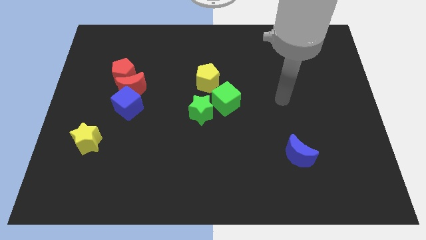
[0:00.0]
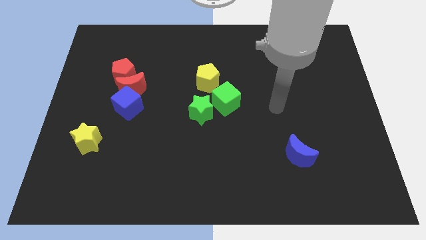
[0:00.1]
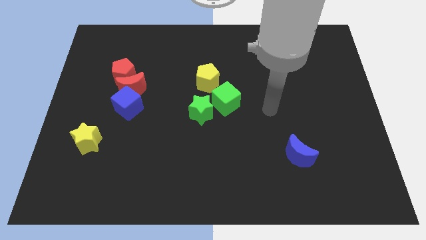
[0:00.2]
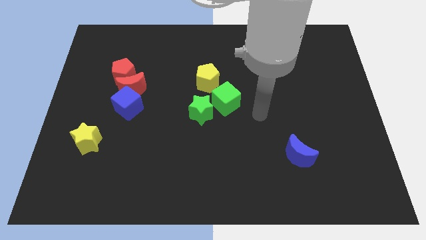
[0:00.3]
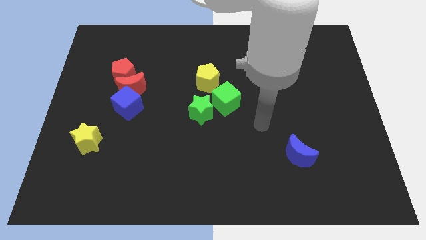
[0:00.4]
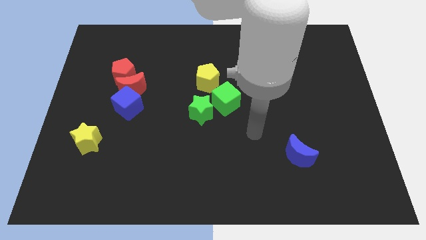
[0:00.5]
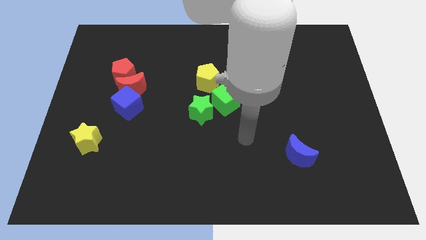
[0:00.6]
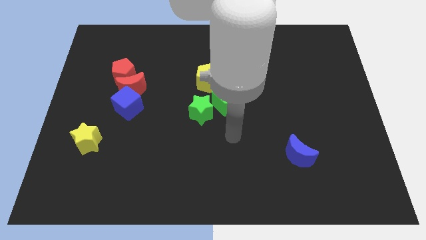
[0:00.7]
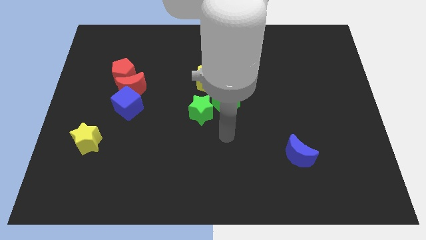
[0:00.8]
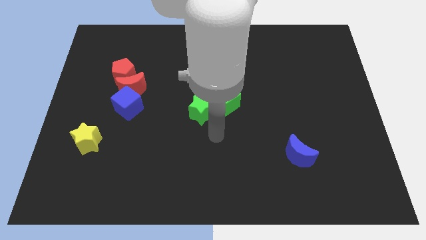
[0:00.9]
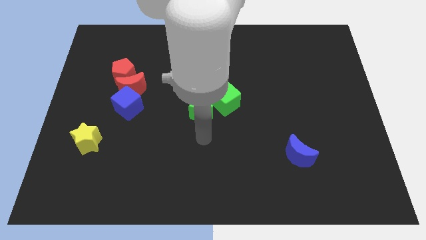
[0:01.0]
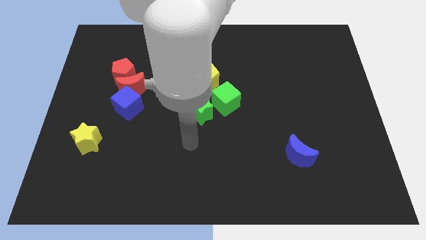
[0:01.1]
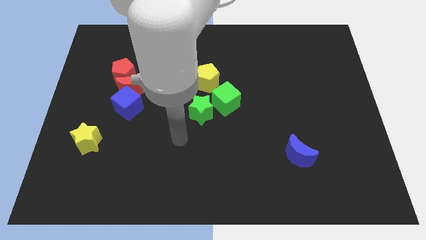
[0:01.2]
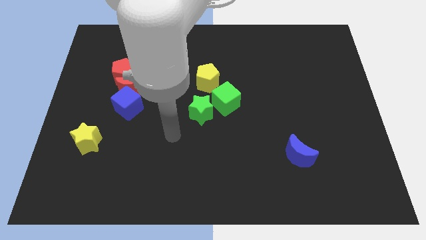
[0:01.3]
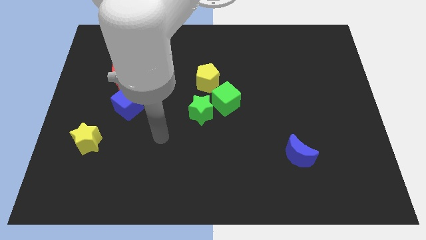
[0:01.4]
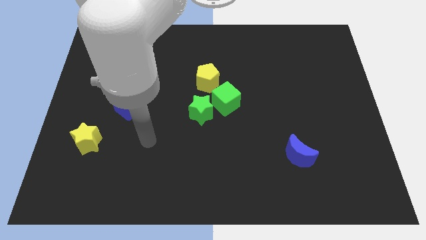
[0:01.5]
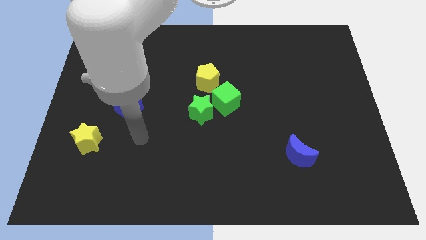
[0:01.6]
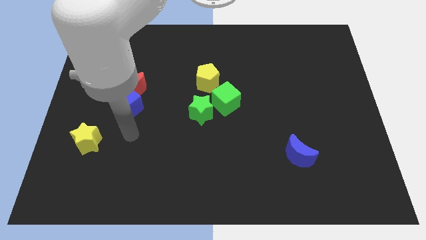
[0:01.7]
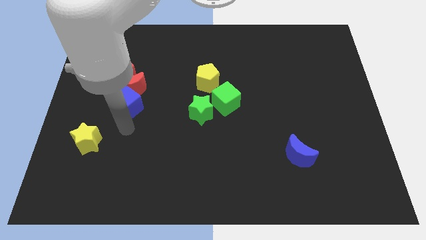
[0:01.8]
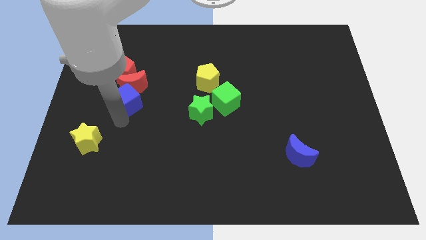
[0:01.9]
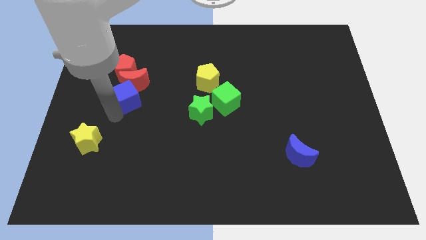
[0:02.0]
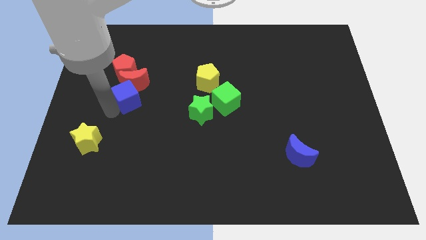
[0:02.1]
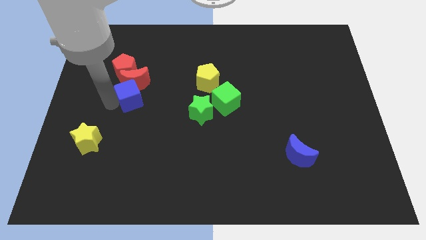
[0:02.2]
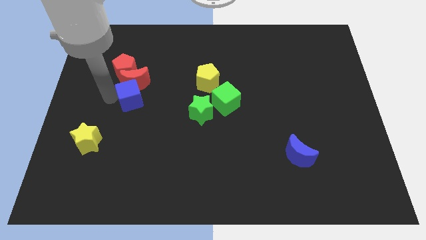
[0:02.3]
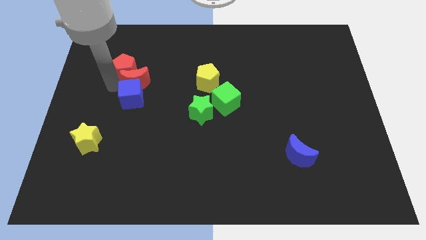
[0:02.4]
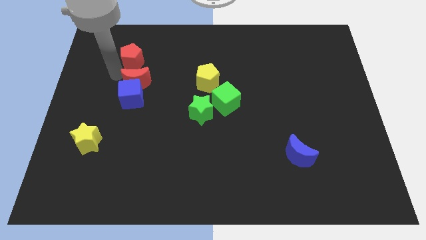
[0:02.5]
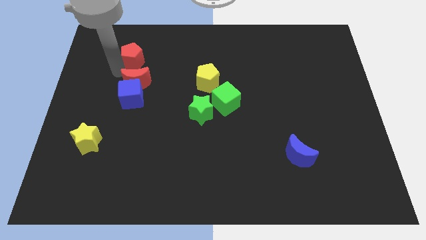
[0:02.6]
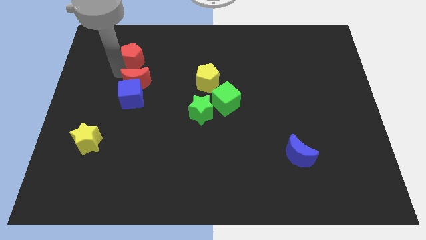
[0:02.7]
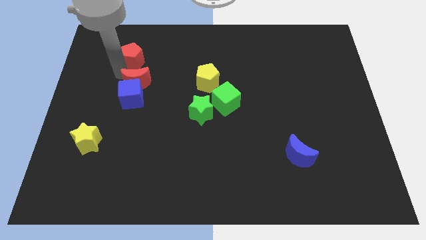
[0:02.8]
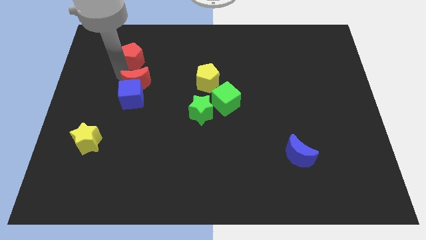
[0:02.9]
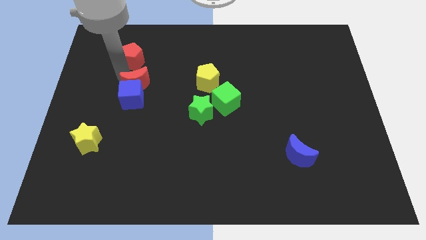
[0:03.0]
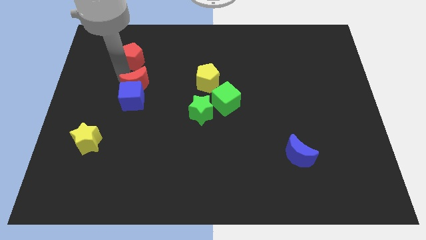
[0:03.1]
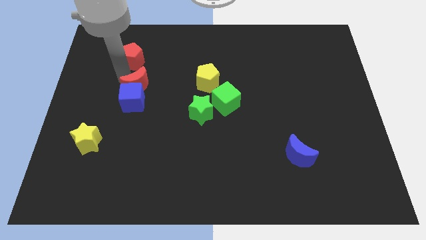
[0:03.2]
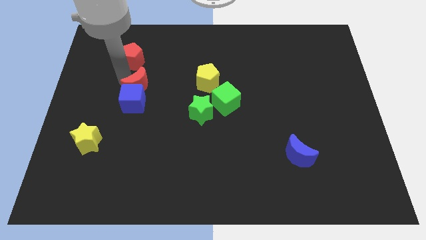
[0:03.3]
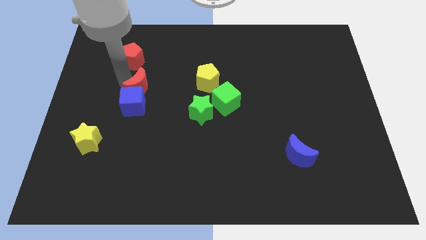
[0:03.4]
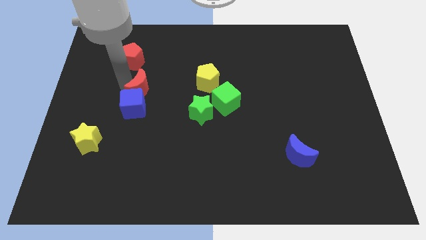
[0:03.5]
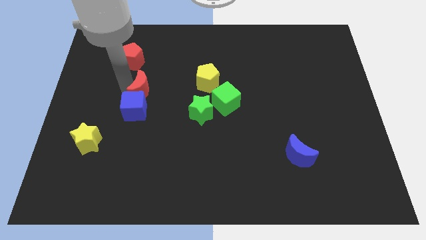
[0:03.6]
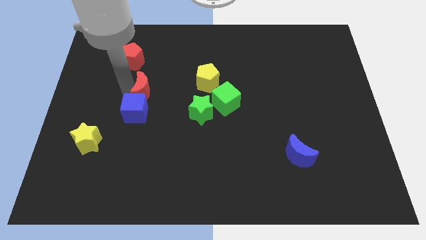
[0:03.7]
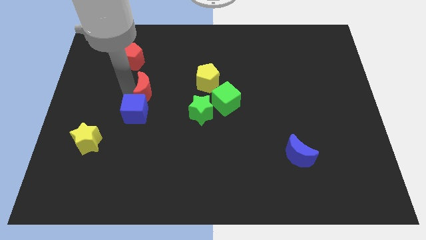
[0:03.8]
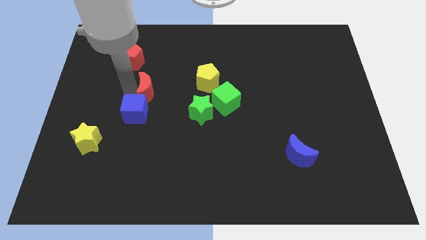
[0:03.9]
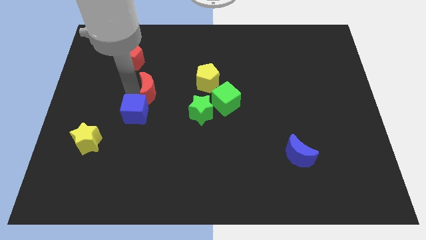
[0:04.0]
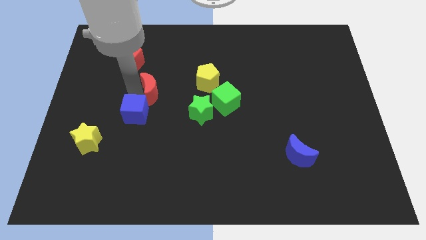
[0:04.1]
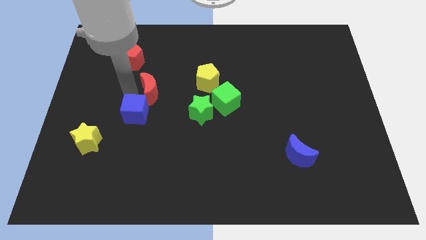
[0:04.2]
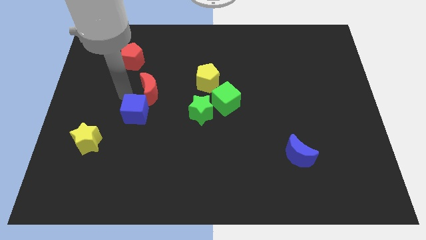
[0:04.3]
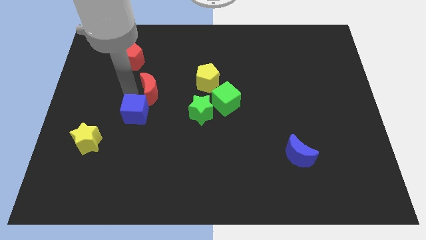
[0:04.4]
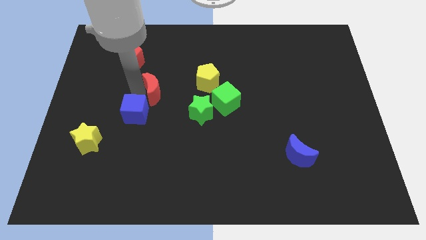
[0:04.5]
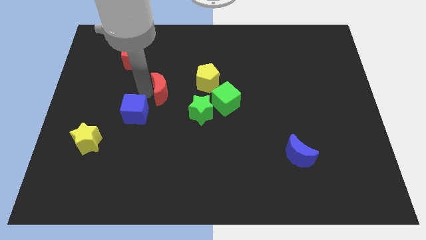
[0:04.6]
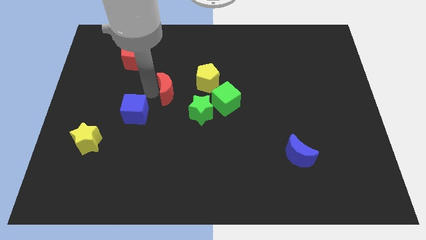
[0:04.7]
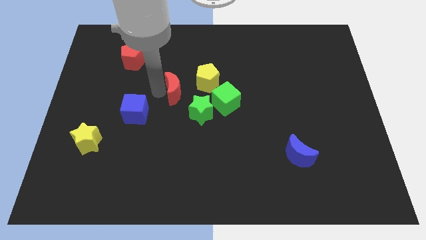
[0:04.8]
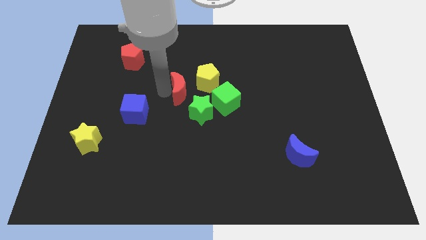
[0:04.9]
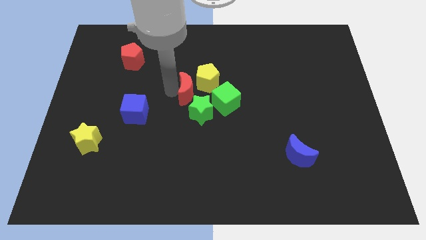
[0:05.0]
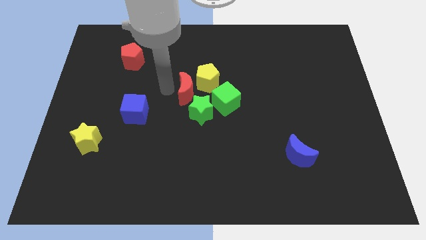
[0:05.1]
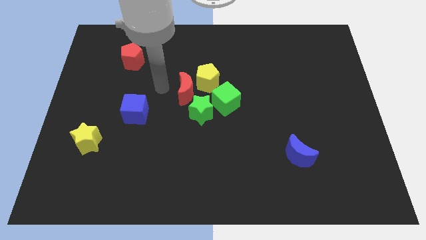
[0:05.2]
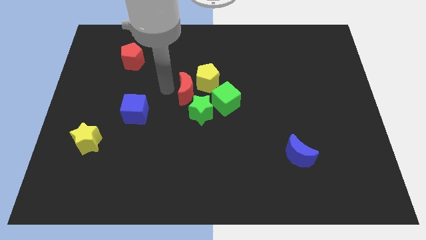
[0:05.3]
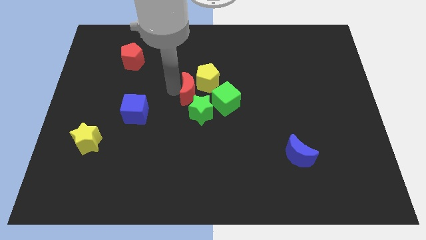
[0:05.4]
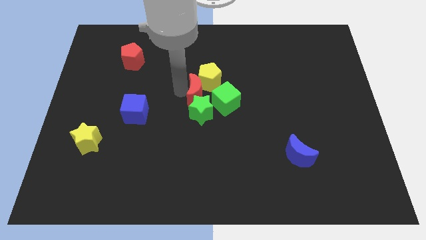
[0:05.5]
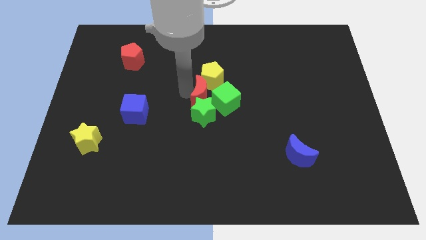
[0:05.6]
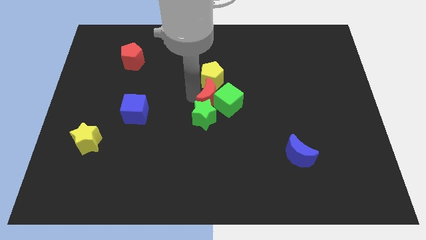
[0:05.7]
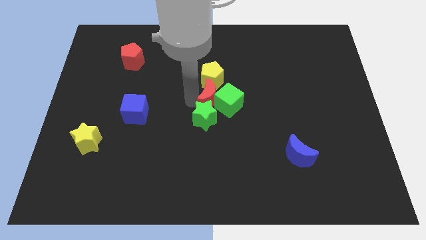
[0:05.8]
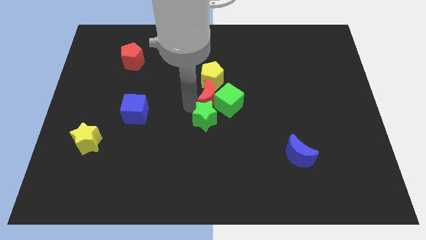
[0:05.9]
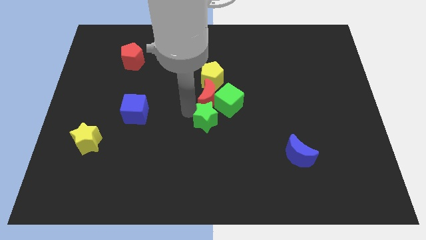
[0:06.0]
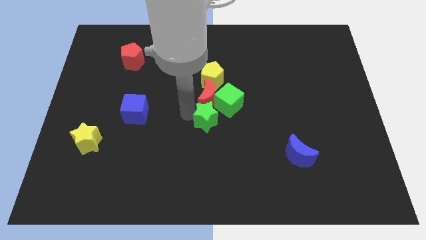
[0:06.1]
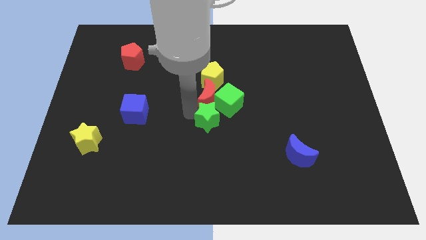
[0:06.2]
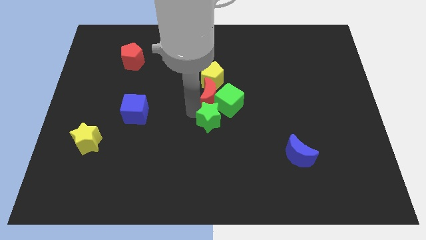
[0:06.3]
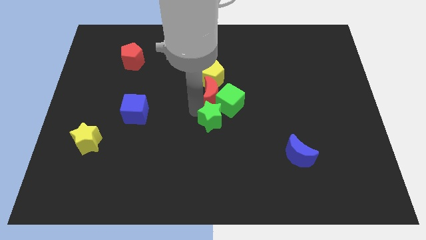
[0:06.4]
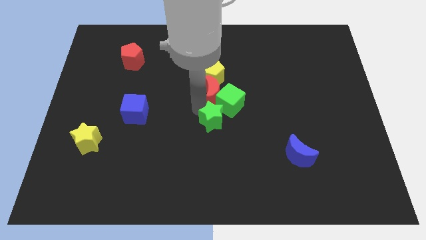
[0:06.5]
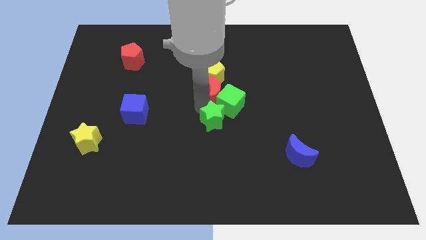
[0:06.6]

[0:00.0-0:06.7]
slide the red moon right

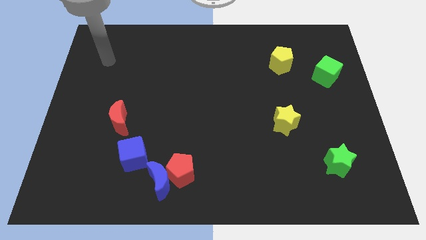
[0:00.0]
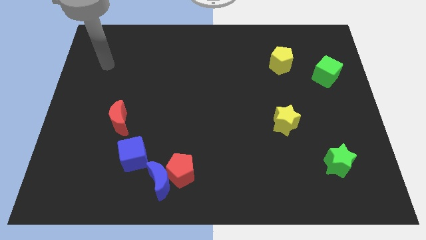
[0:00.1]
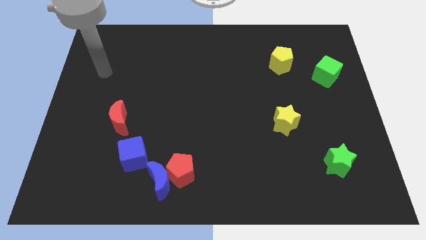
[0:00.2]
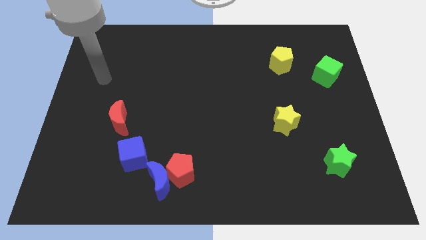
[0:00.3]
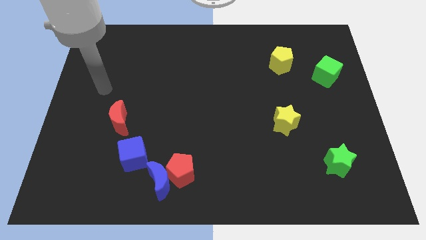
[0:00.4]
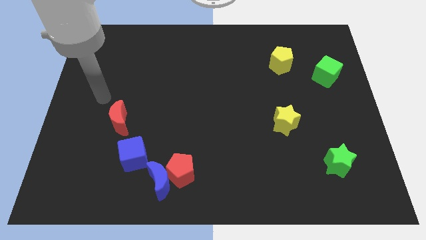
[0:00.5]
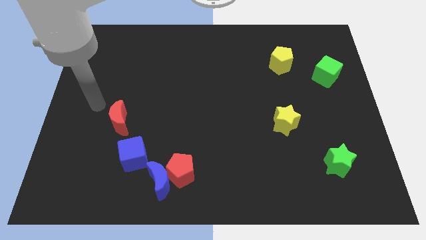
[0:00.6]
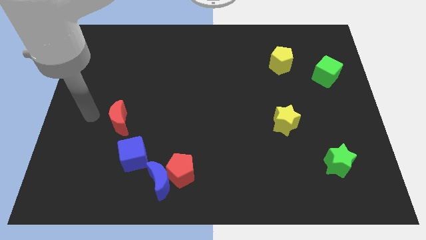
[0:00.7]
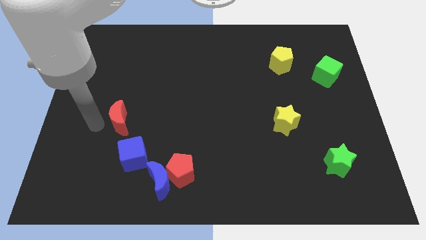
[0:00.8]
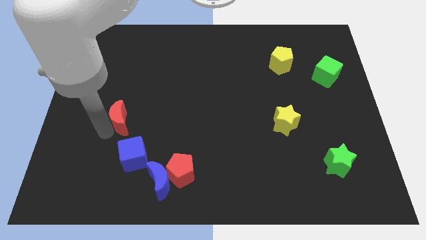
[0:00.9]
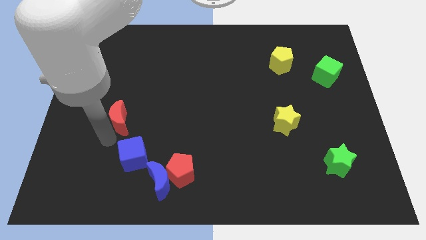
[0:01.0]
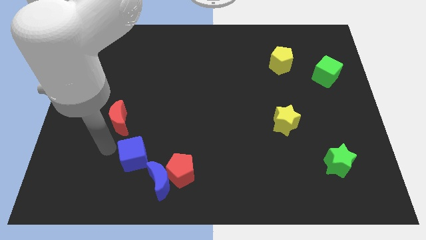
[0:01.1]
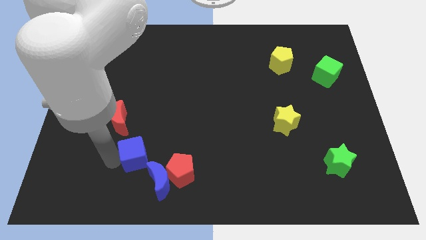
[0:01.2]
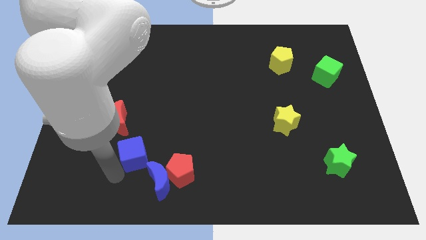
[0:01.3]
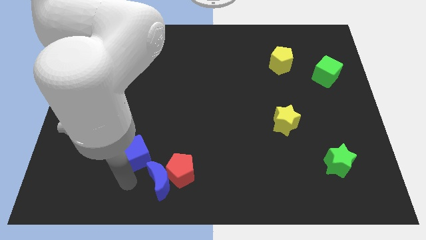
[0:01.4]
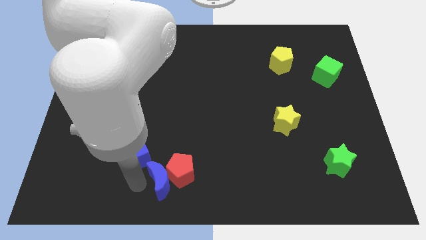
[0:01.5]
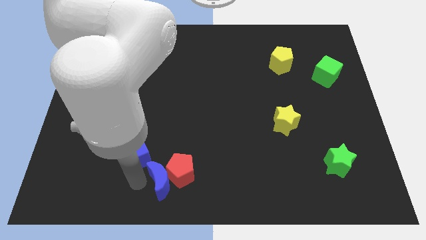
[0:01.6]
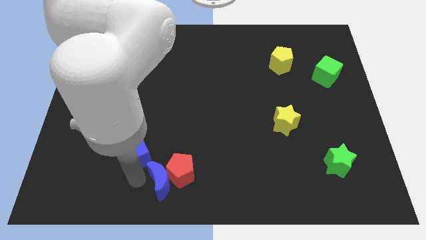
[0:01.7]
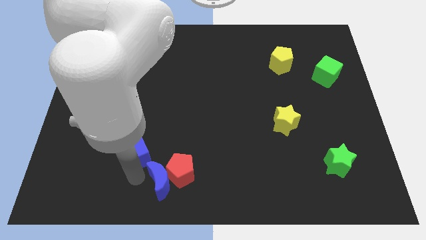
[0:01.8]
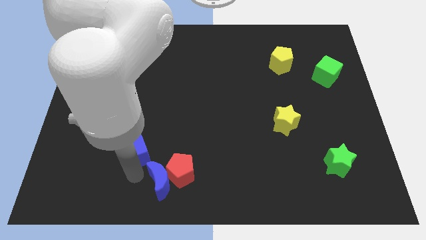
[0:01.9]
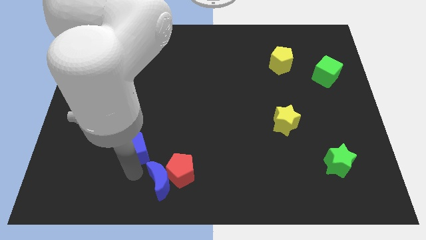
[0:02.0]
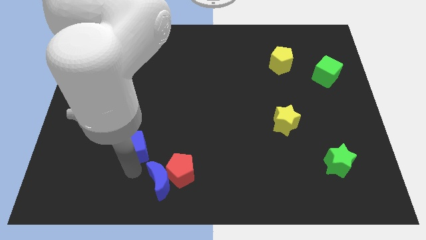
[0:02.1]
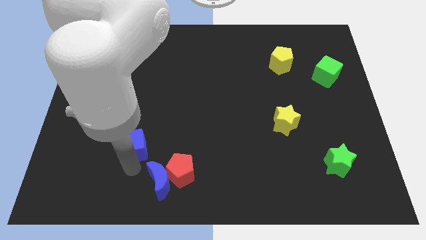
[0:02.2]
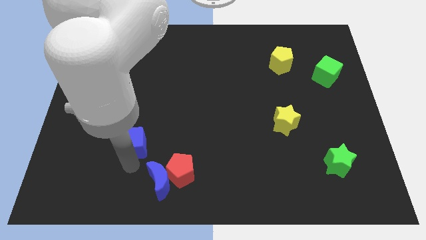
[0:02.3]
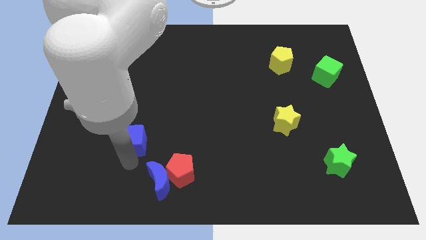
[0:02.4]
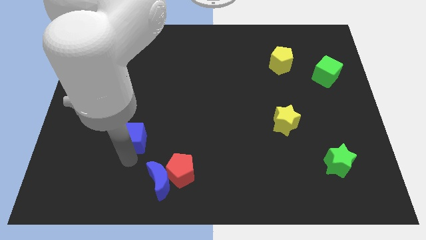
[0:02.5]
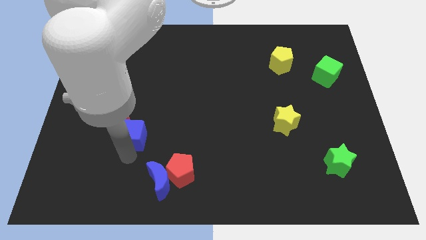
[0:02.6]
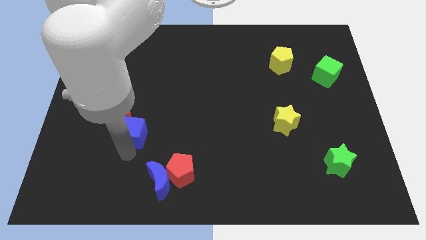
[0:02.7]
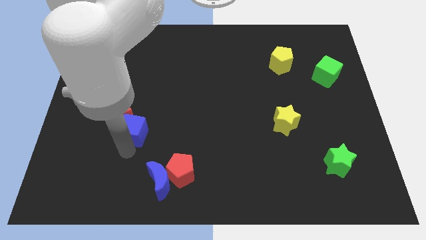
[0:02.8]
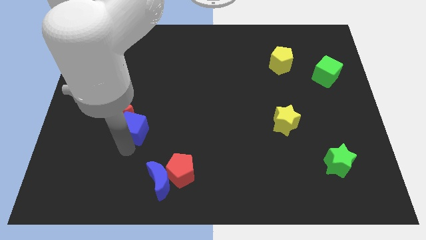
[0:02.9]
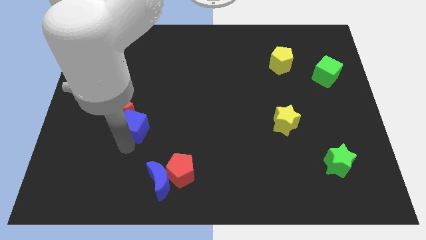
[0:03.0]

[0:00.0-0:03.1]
slightly move the blue cube upwards
